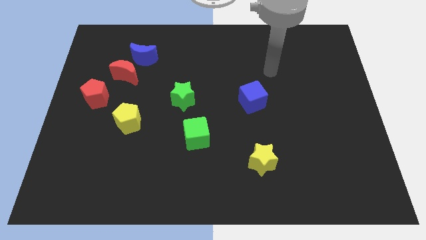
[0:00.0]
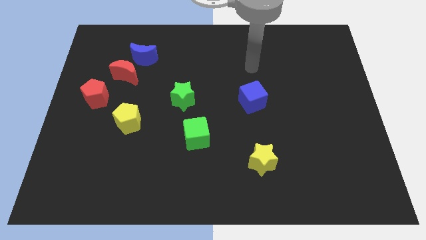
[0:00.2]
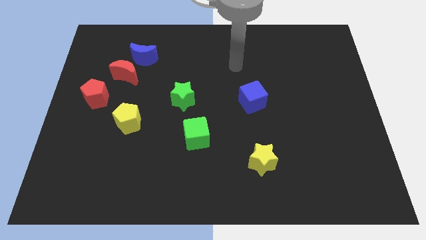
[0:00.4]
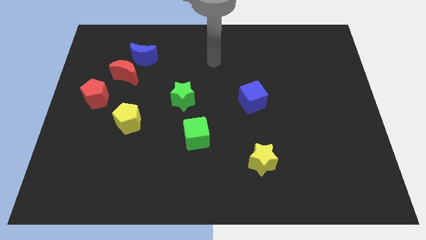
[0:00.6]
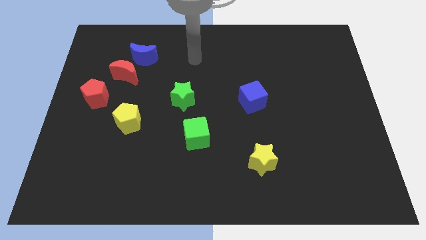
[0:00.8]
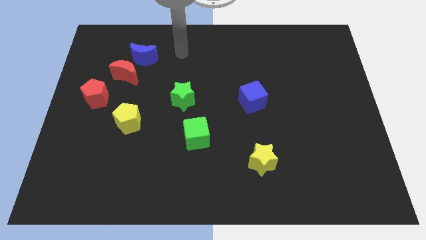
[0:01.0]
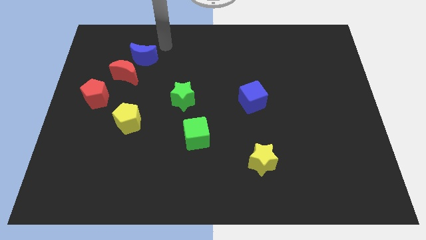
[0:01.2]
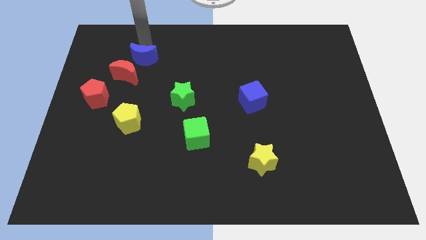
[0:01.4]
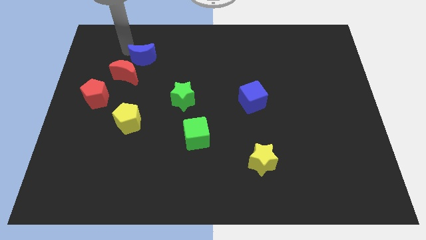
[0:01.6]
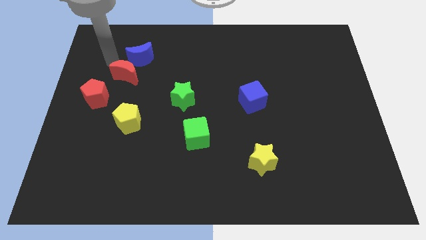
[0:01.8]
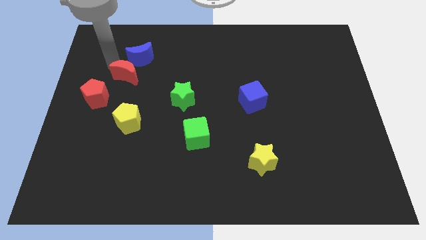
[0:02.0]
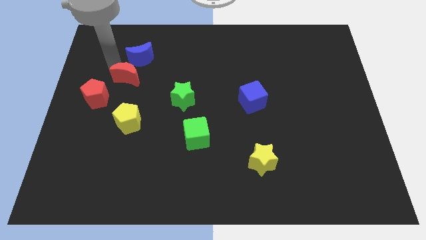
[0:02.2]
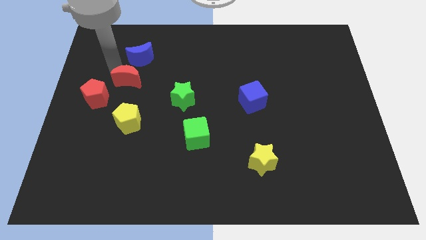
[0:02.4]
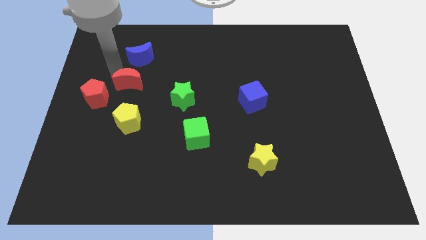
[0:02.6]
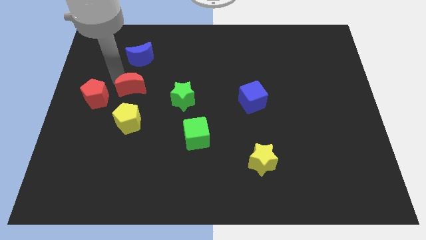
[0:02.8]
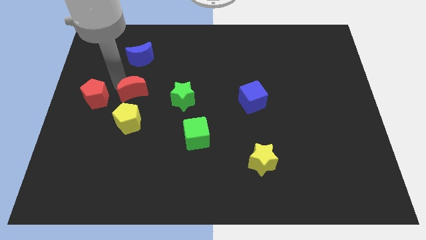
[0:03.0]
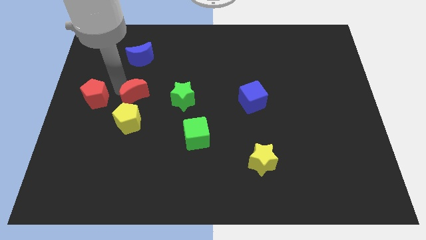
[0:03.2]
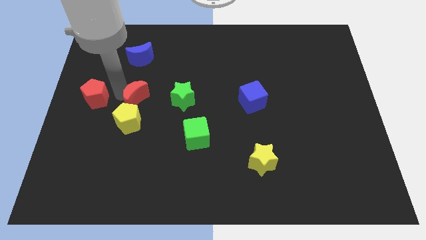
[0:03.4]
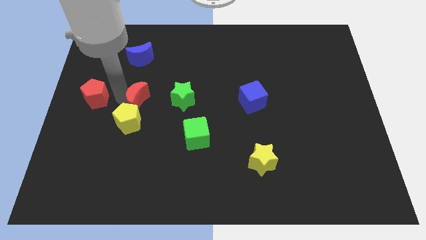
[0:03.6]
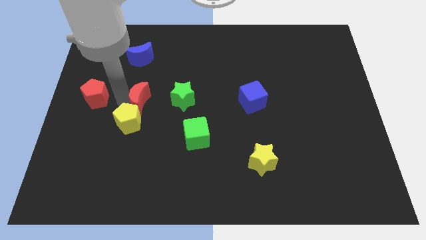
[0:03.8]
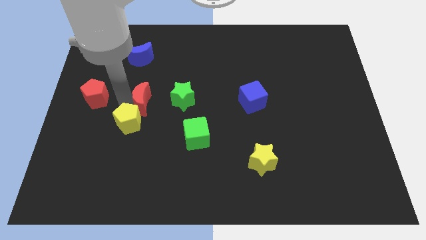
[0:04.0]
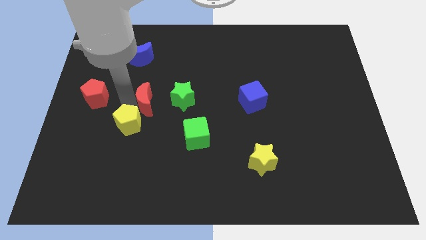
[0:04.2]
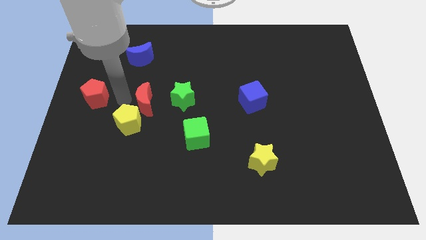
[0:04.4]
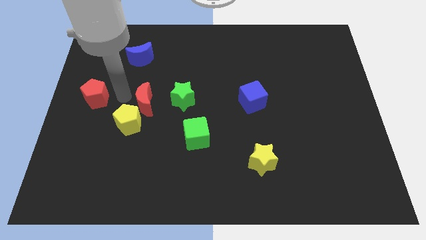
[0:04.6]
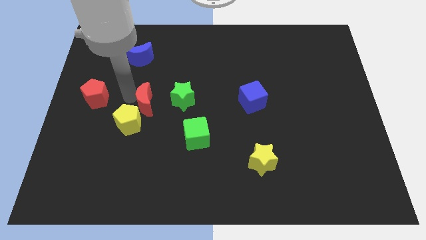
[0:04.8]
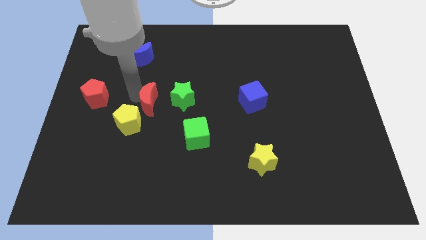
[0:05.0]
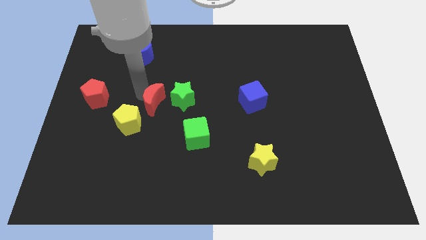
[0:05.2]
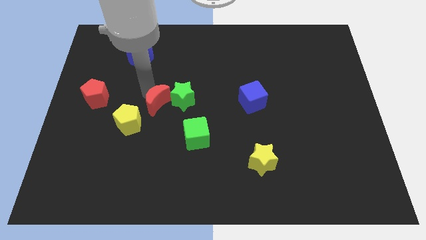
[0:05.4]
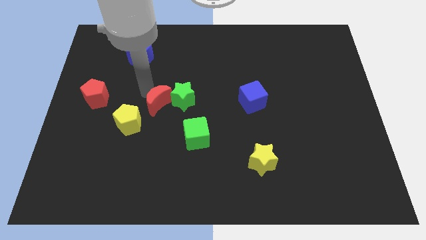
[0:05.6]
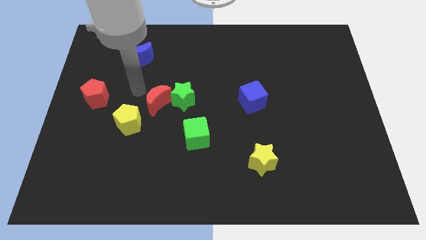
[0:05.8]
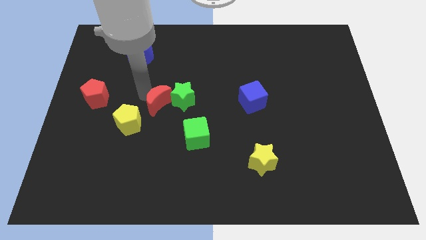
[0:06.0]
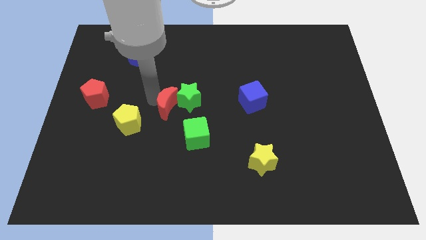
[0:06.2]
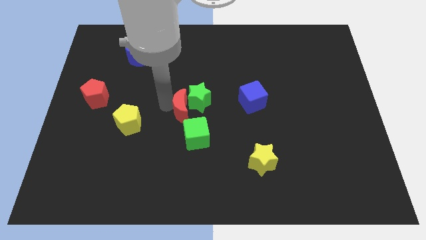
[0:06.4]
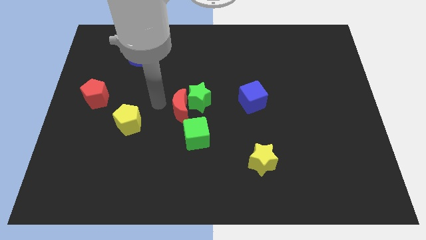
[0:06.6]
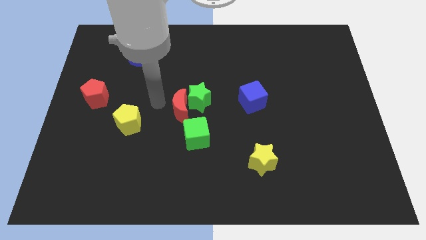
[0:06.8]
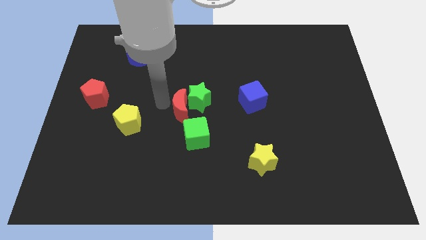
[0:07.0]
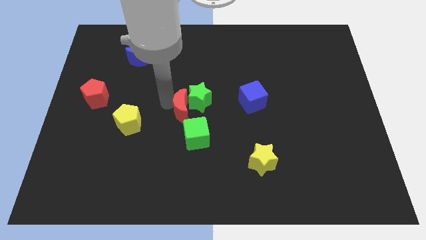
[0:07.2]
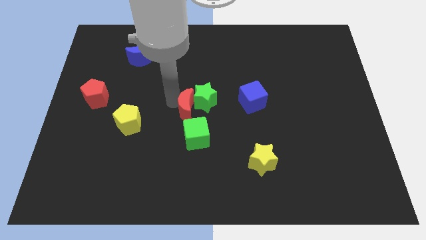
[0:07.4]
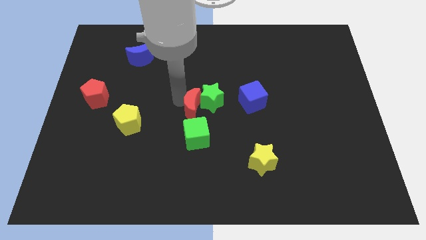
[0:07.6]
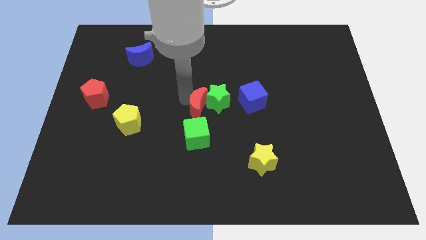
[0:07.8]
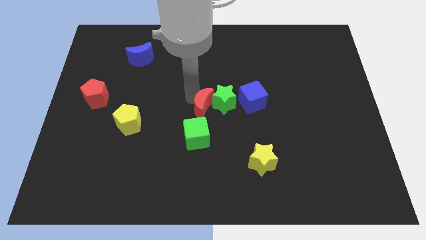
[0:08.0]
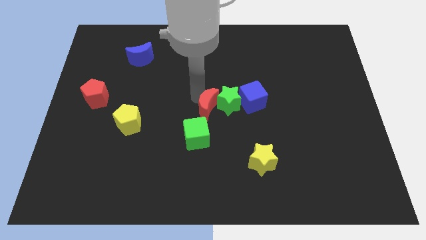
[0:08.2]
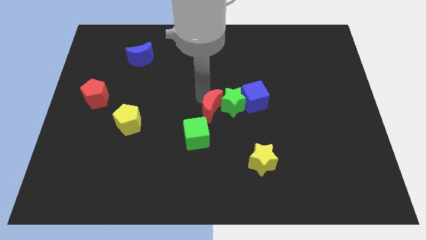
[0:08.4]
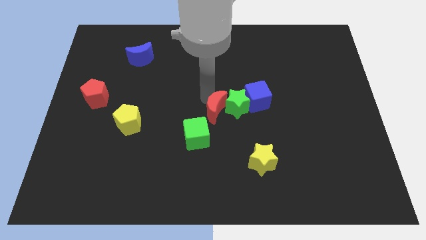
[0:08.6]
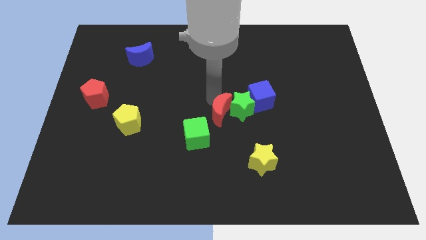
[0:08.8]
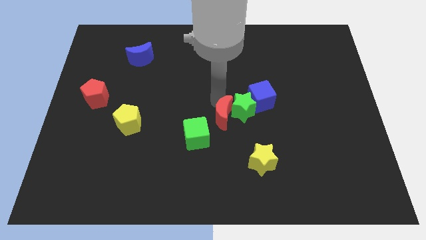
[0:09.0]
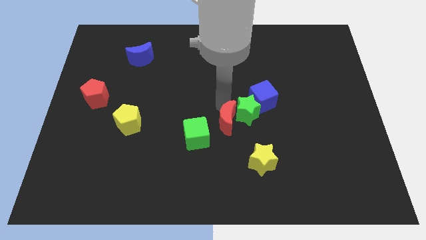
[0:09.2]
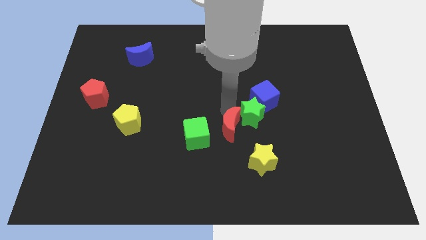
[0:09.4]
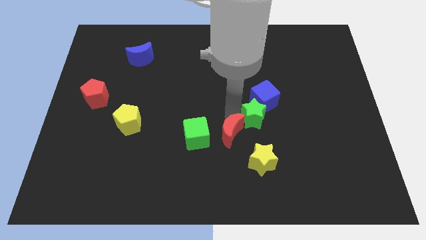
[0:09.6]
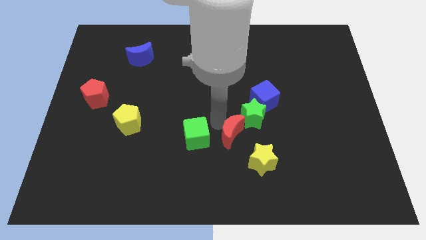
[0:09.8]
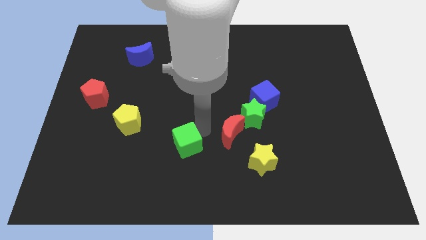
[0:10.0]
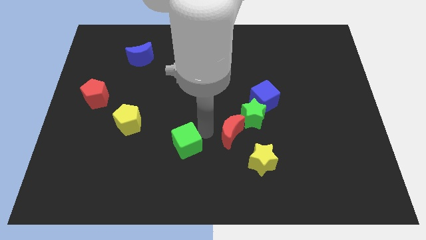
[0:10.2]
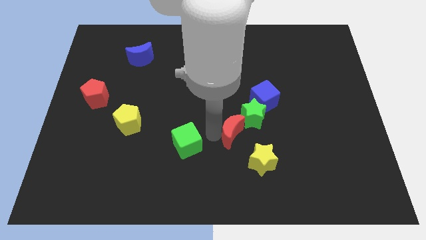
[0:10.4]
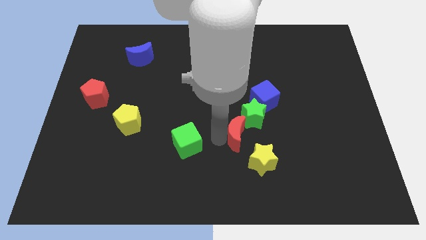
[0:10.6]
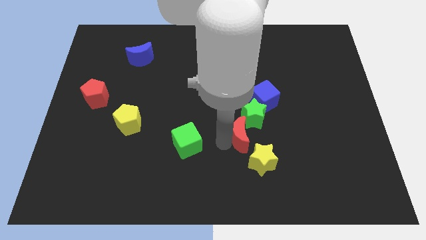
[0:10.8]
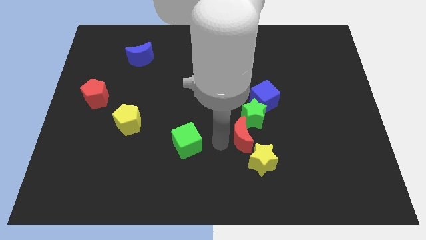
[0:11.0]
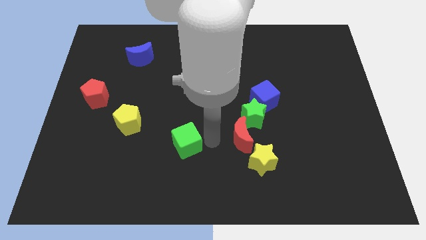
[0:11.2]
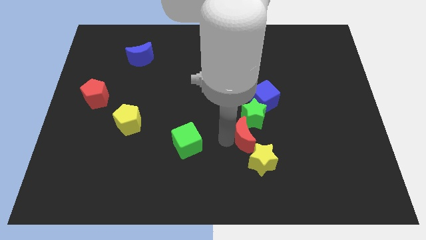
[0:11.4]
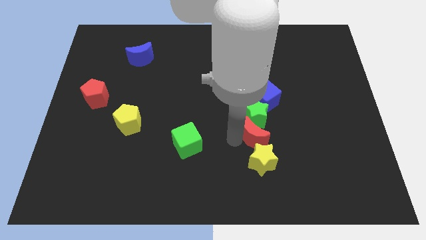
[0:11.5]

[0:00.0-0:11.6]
push the red moon to the bottom side of the blue cube

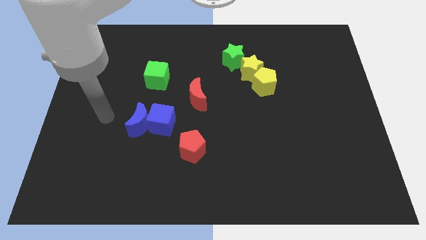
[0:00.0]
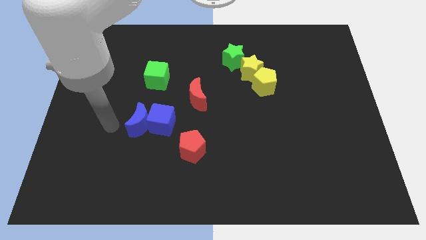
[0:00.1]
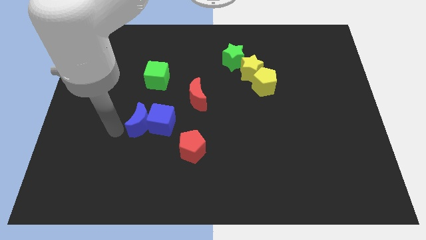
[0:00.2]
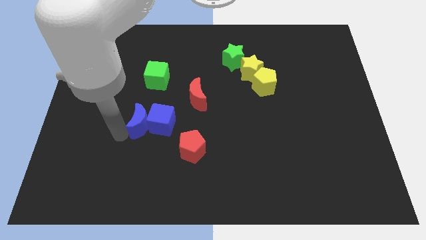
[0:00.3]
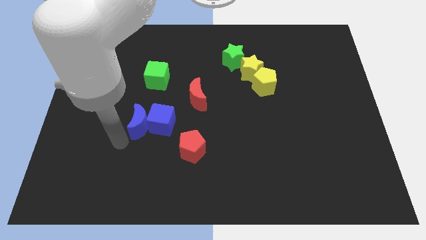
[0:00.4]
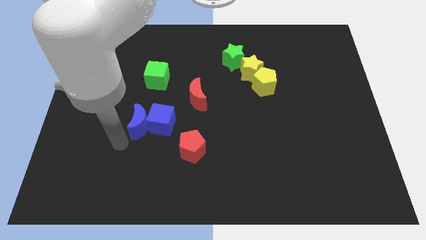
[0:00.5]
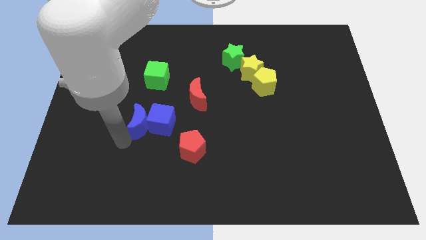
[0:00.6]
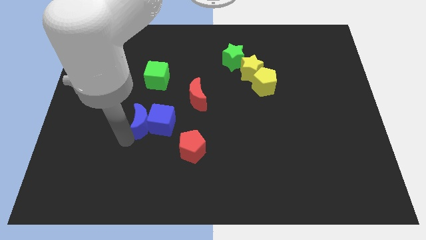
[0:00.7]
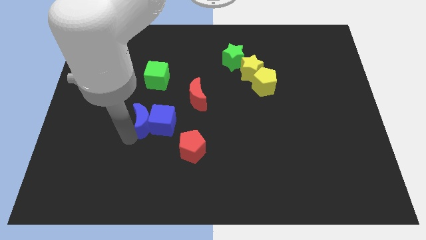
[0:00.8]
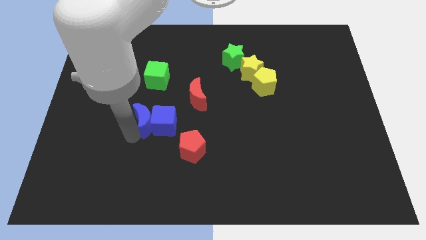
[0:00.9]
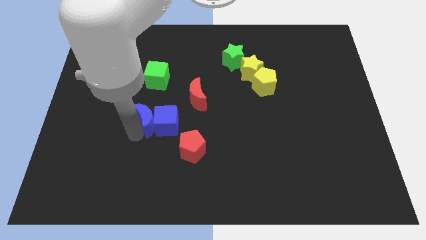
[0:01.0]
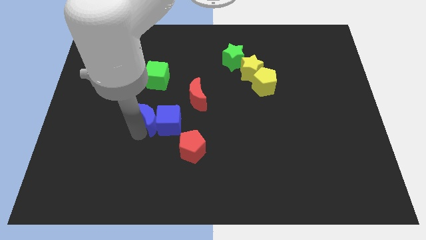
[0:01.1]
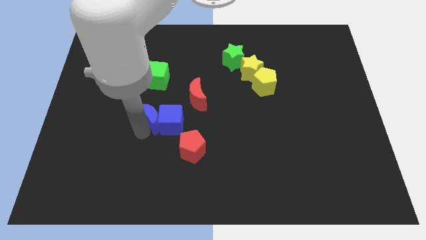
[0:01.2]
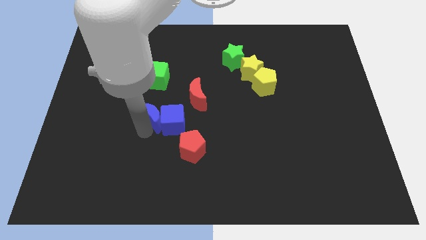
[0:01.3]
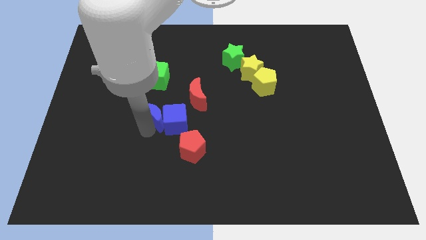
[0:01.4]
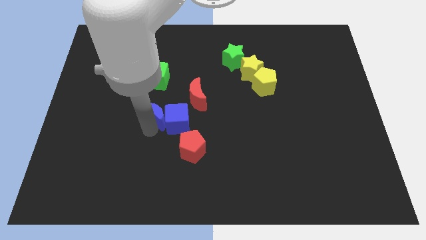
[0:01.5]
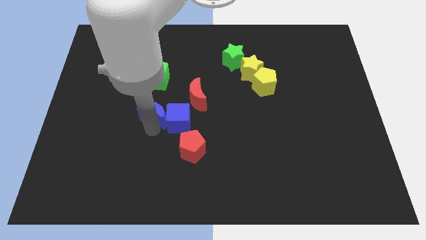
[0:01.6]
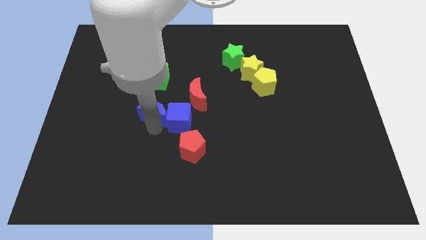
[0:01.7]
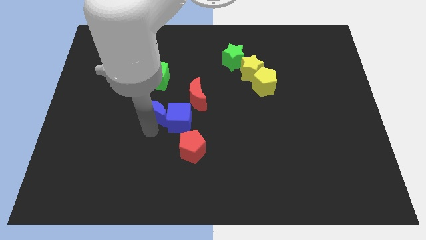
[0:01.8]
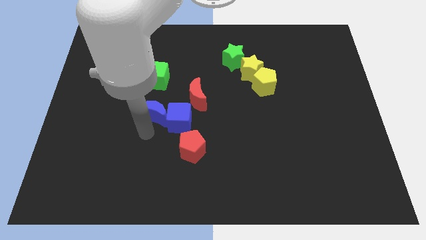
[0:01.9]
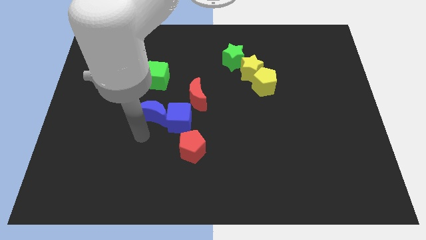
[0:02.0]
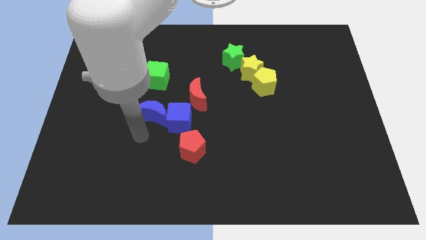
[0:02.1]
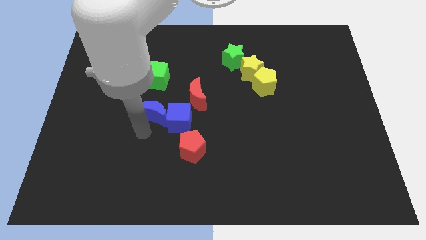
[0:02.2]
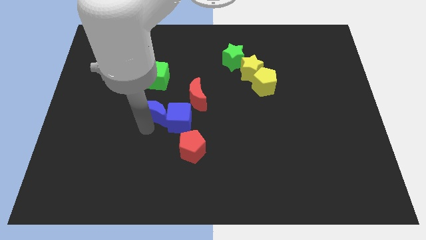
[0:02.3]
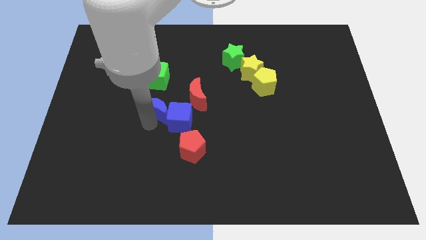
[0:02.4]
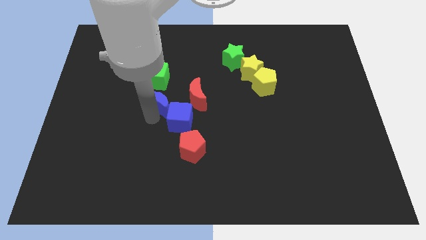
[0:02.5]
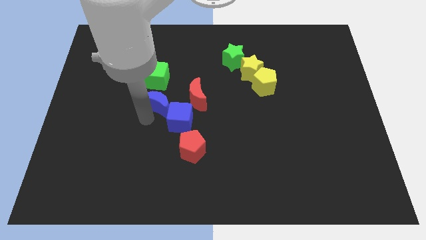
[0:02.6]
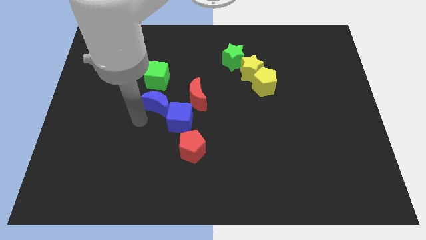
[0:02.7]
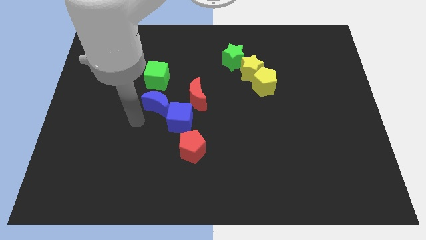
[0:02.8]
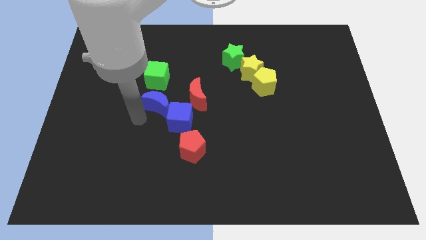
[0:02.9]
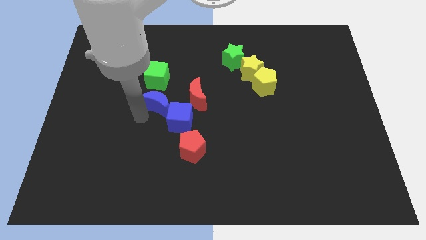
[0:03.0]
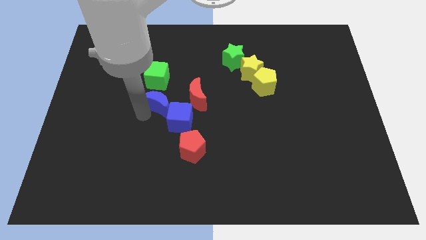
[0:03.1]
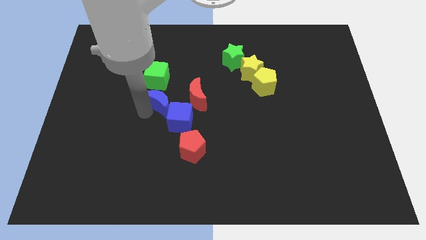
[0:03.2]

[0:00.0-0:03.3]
push the blue moon diagonally down and to the right of the green cube
